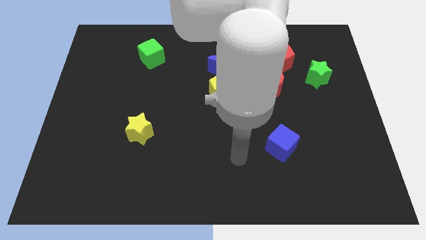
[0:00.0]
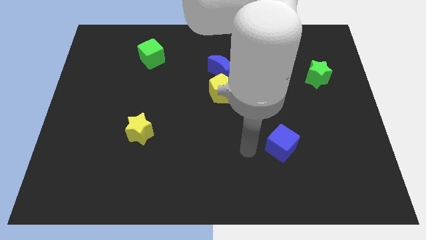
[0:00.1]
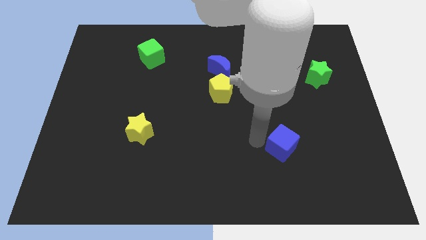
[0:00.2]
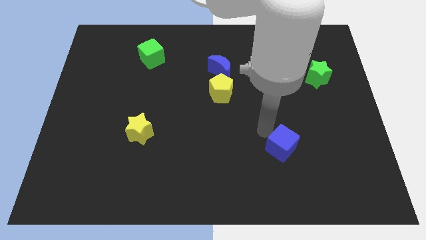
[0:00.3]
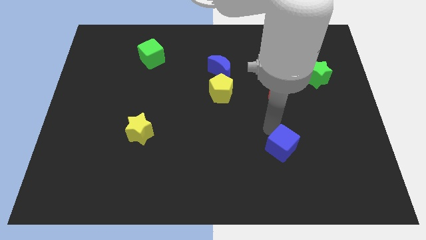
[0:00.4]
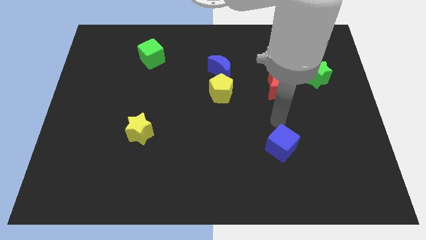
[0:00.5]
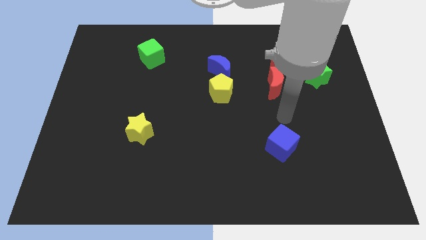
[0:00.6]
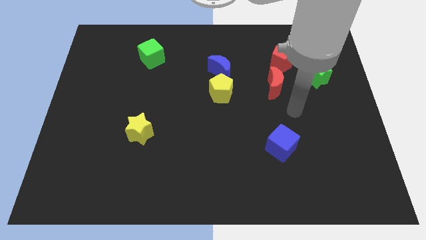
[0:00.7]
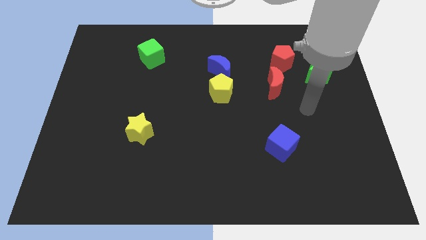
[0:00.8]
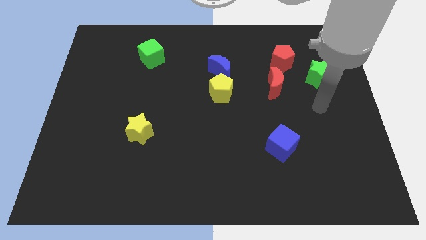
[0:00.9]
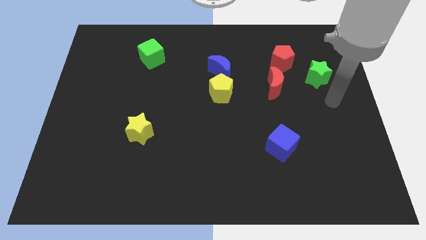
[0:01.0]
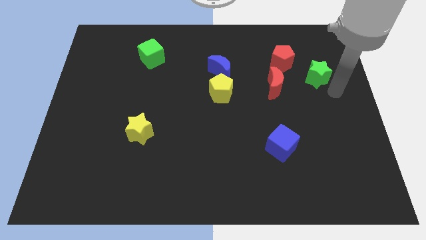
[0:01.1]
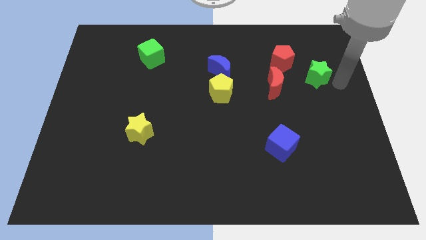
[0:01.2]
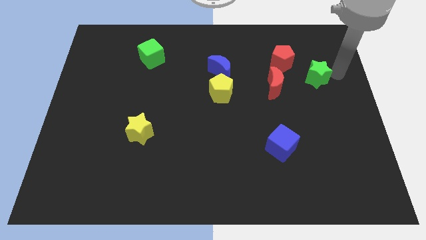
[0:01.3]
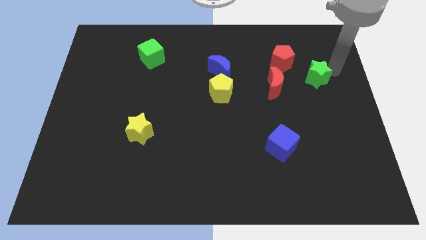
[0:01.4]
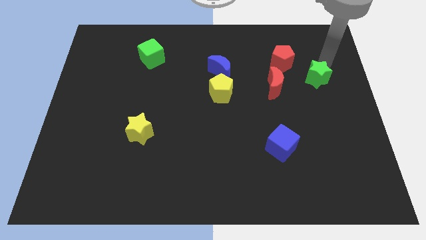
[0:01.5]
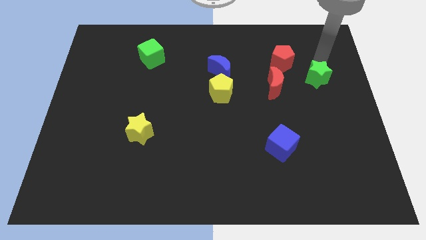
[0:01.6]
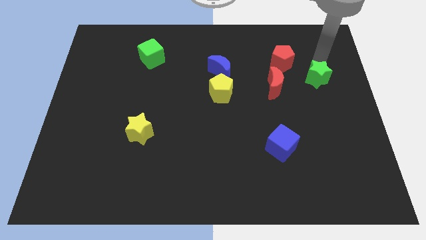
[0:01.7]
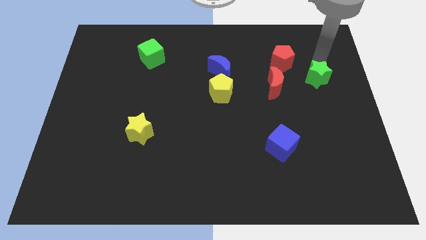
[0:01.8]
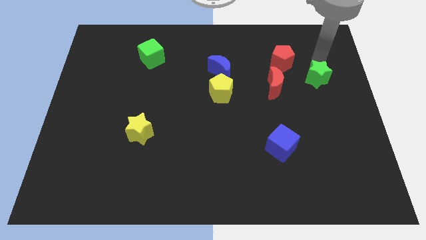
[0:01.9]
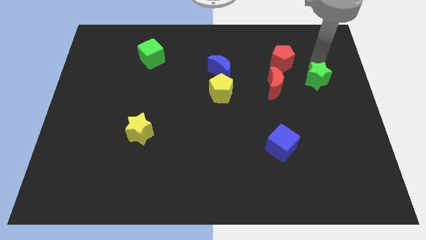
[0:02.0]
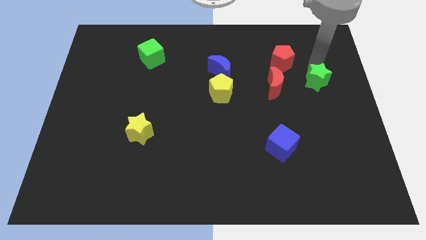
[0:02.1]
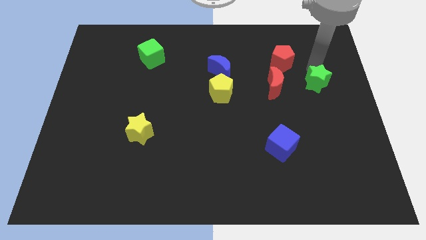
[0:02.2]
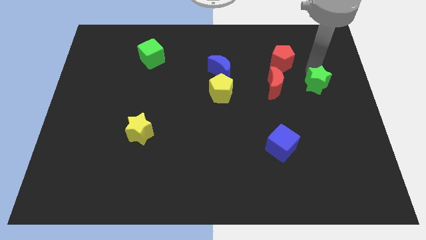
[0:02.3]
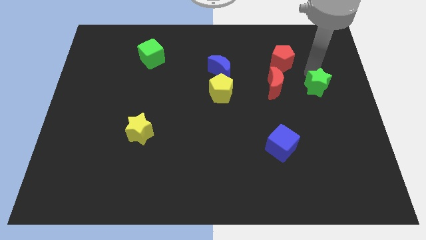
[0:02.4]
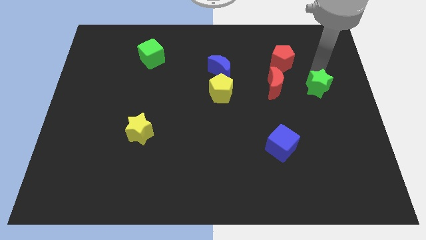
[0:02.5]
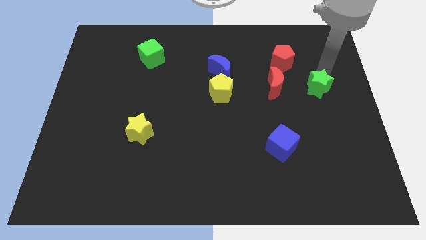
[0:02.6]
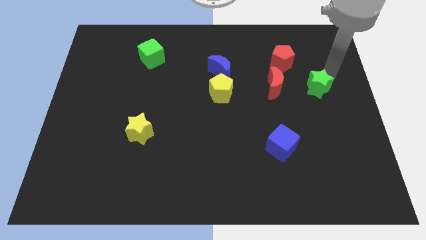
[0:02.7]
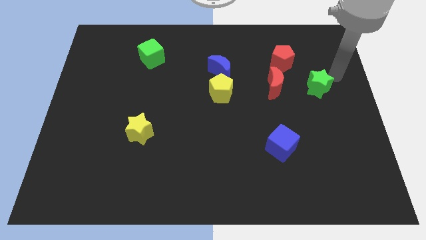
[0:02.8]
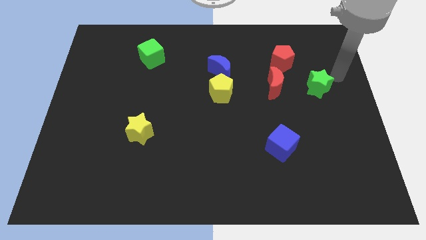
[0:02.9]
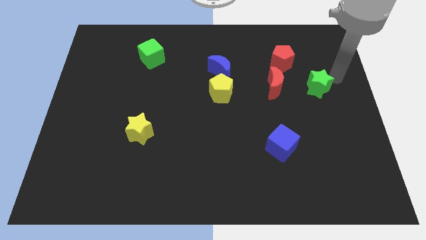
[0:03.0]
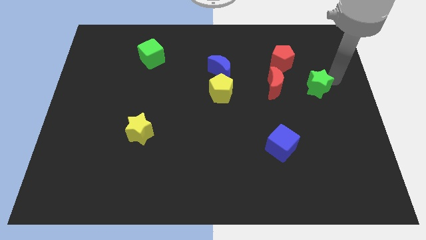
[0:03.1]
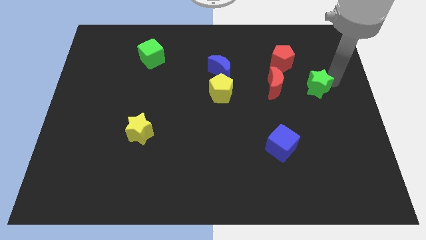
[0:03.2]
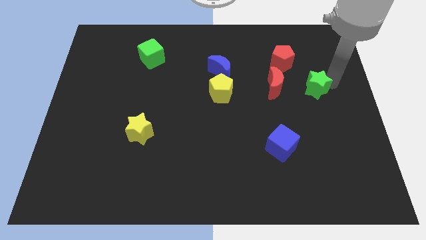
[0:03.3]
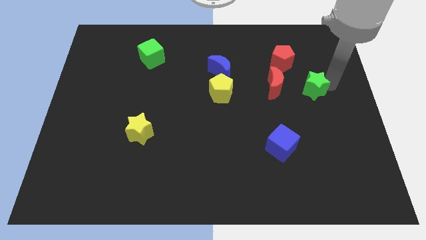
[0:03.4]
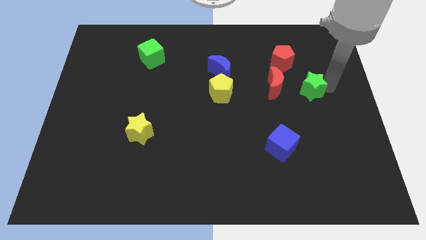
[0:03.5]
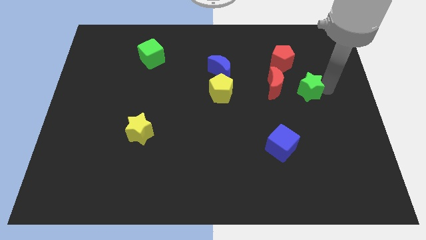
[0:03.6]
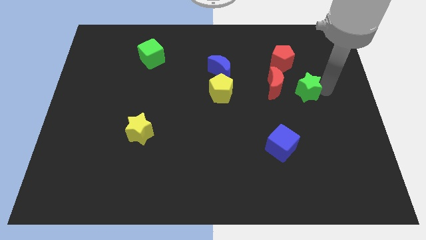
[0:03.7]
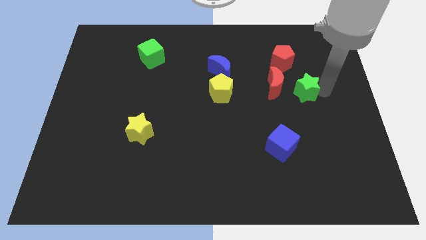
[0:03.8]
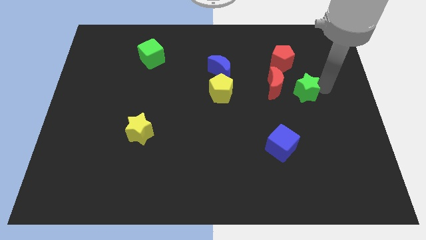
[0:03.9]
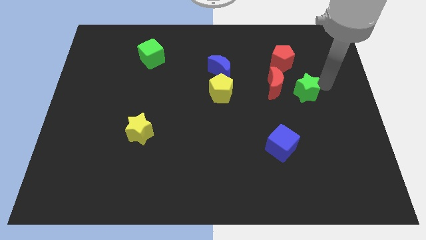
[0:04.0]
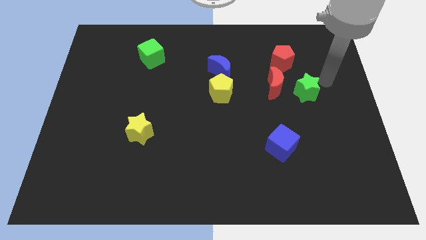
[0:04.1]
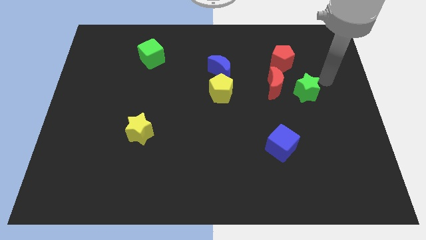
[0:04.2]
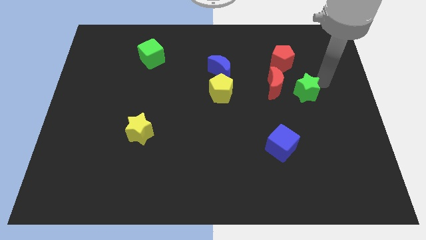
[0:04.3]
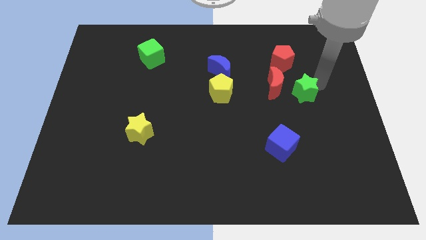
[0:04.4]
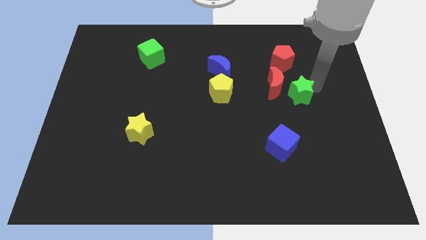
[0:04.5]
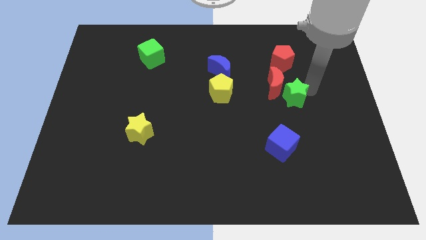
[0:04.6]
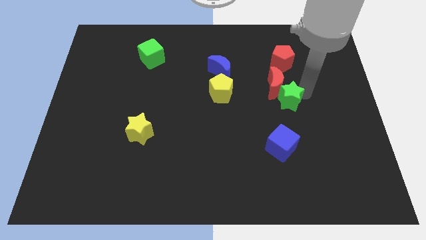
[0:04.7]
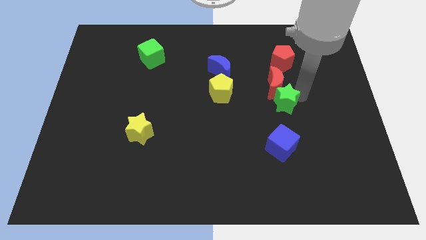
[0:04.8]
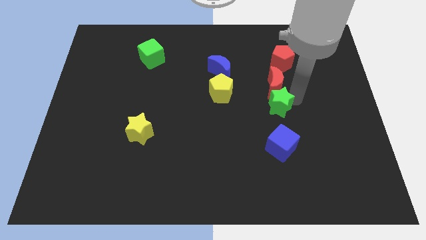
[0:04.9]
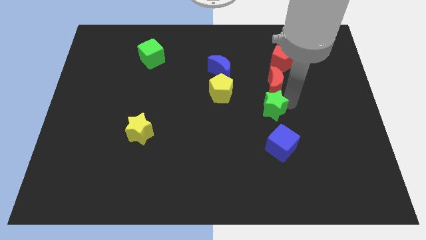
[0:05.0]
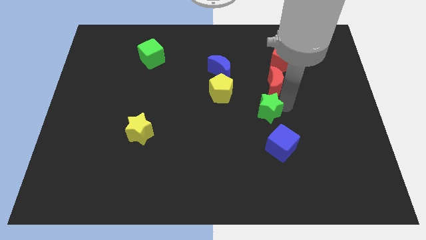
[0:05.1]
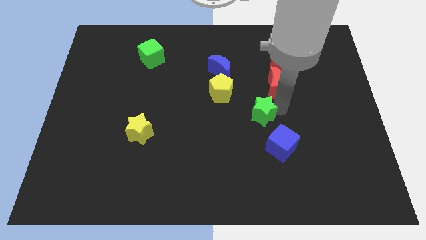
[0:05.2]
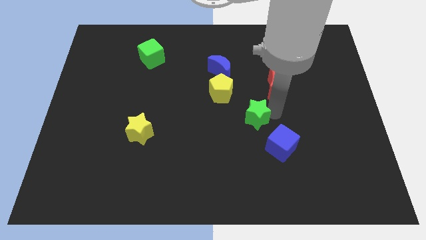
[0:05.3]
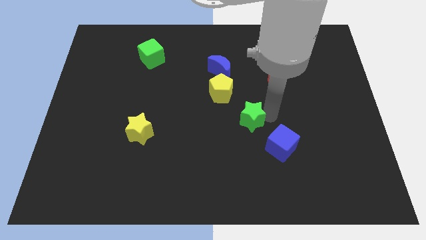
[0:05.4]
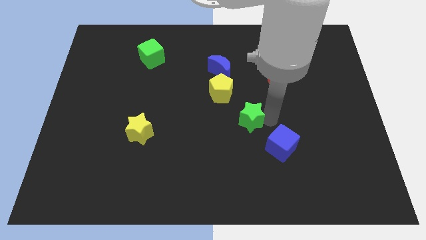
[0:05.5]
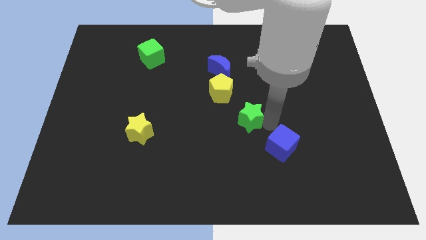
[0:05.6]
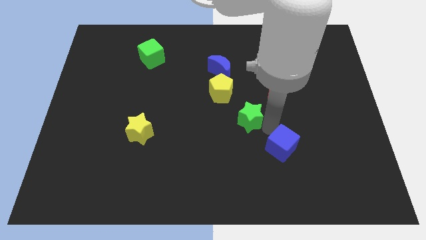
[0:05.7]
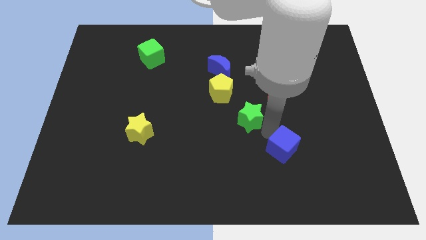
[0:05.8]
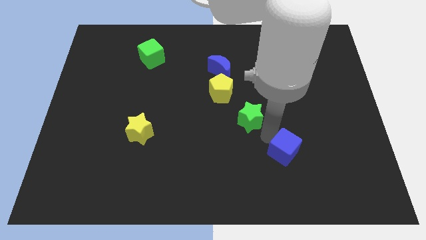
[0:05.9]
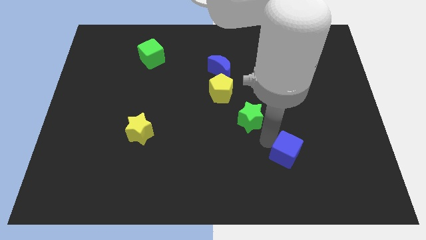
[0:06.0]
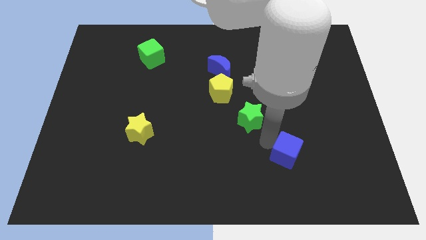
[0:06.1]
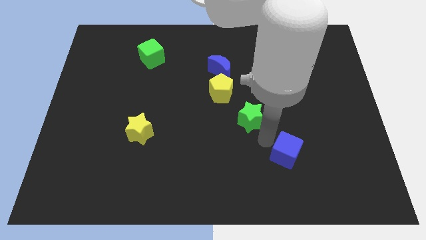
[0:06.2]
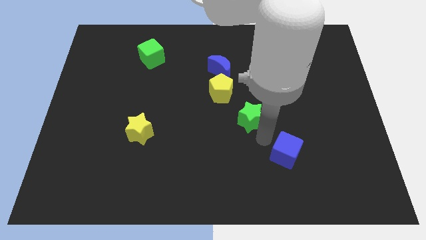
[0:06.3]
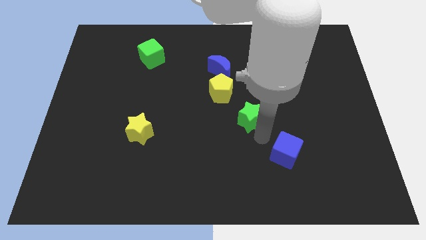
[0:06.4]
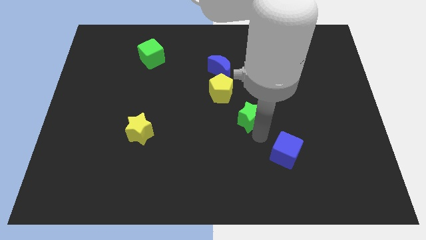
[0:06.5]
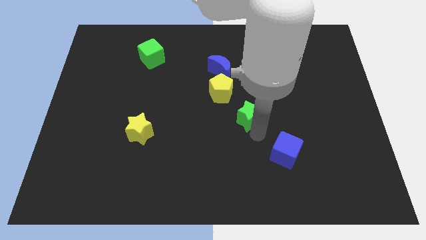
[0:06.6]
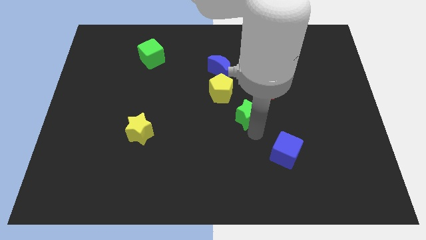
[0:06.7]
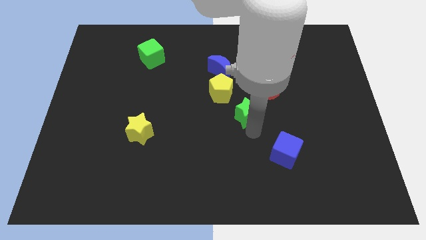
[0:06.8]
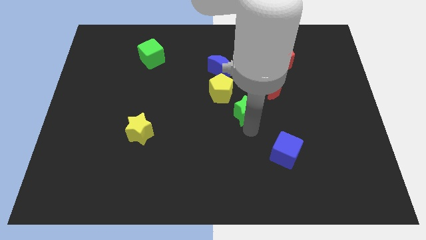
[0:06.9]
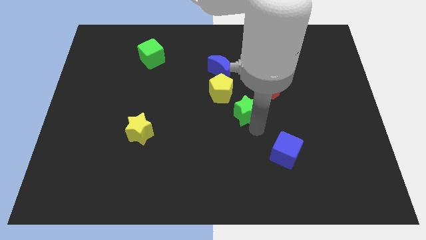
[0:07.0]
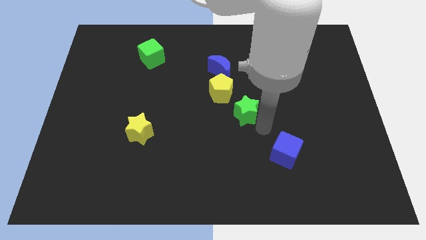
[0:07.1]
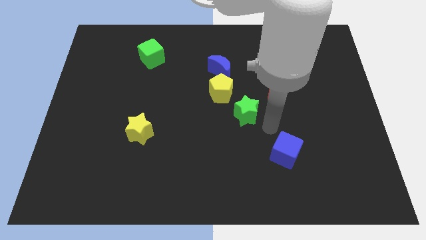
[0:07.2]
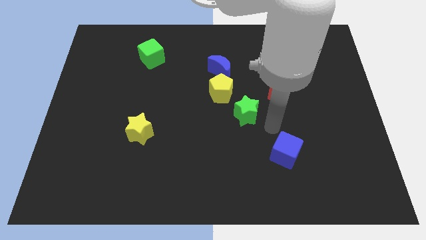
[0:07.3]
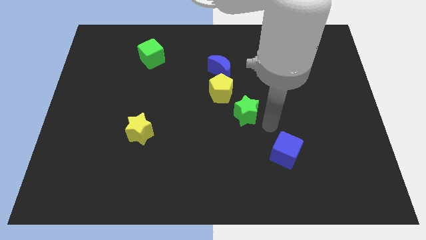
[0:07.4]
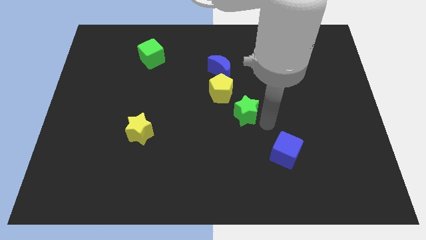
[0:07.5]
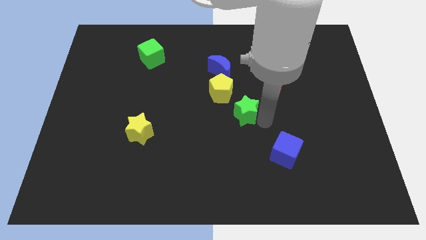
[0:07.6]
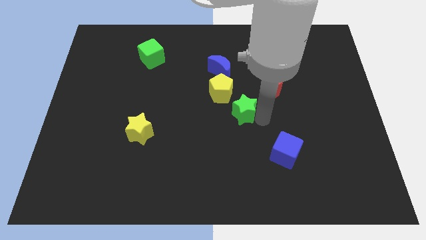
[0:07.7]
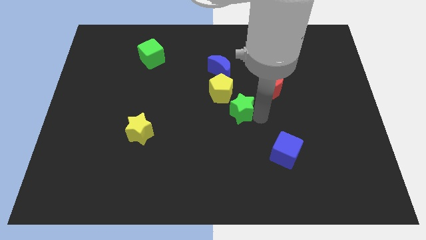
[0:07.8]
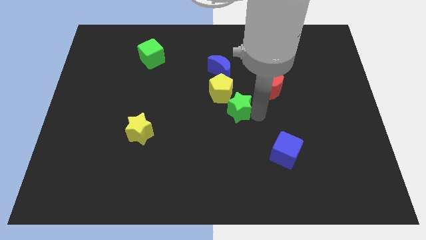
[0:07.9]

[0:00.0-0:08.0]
move the green star to the bottom side of the blue moon
